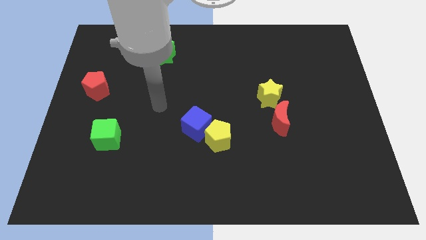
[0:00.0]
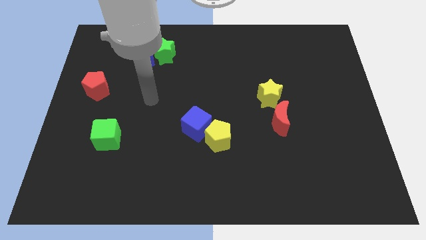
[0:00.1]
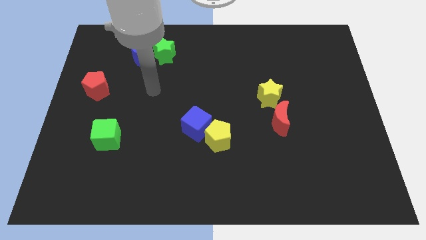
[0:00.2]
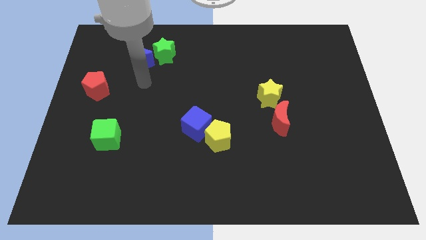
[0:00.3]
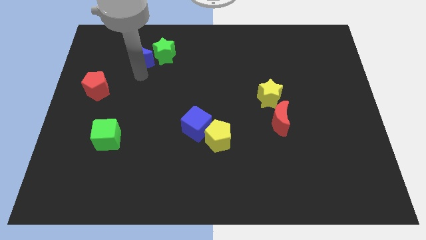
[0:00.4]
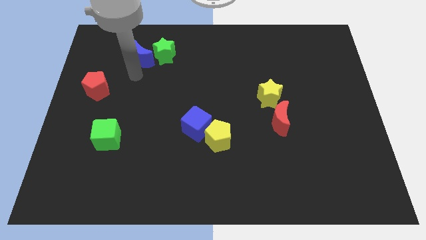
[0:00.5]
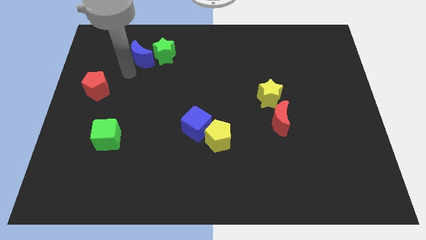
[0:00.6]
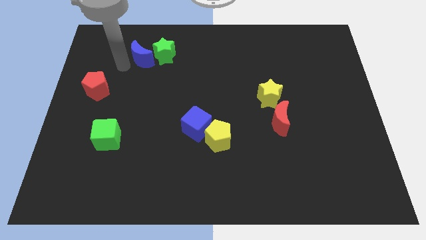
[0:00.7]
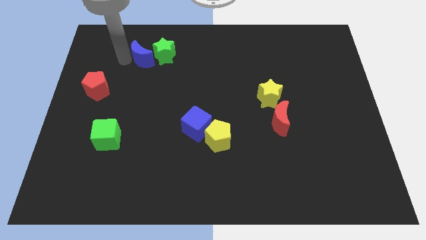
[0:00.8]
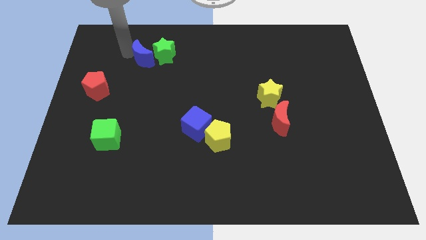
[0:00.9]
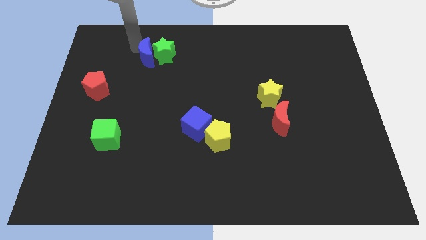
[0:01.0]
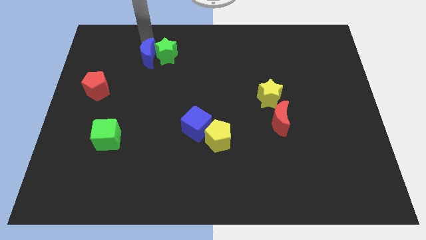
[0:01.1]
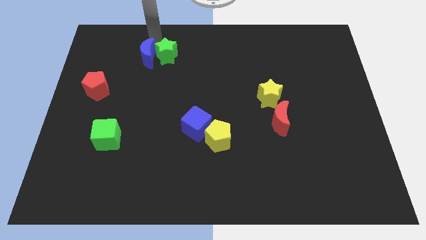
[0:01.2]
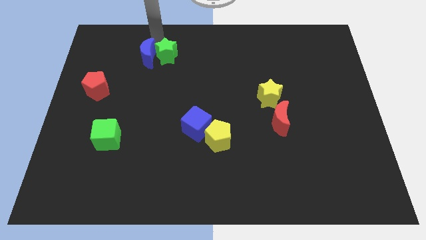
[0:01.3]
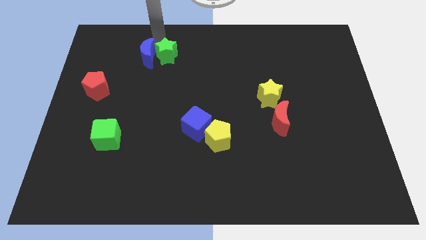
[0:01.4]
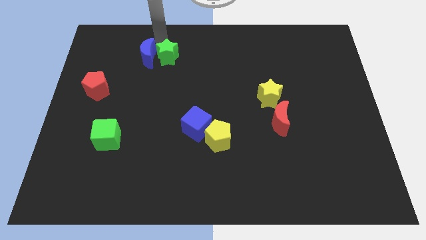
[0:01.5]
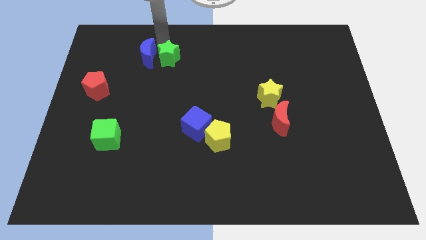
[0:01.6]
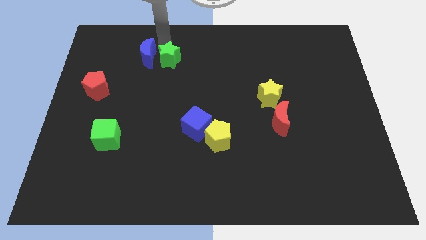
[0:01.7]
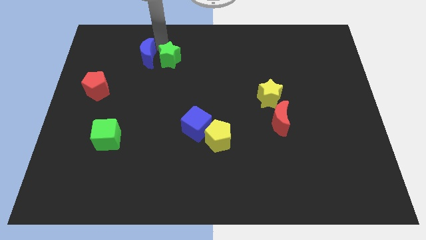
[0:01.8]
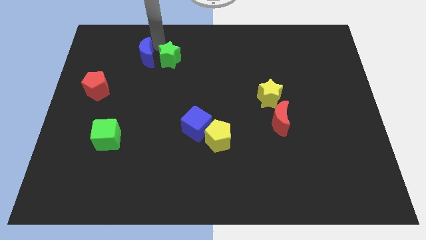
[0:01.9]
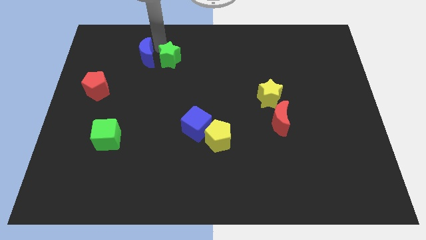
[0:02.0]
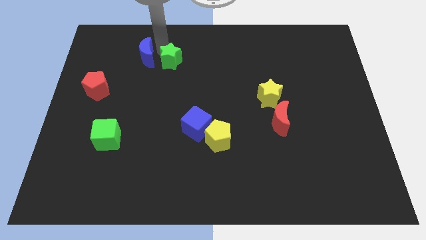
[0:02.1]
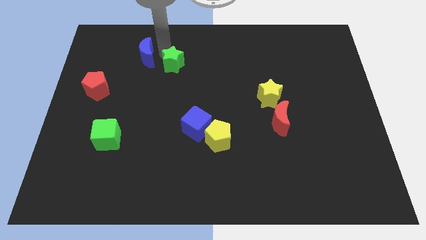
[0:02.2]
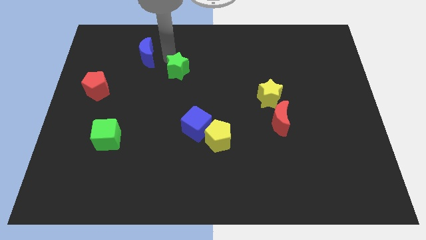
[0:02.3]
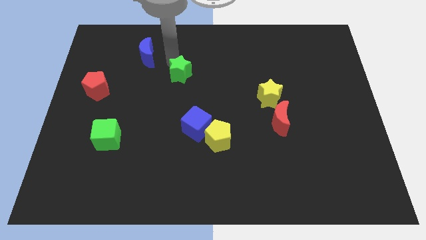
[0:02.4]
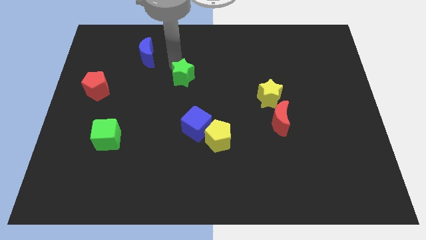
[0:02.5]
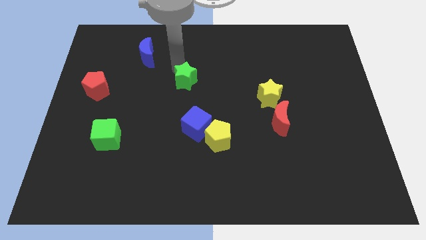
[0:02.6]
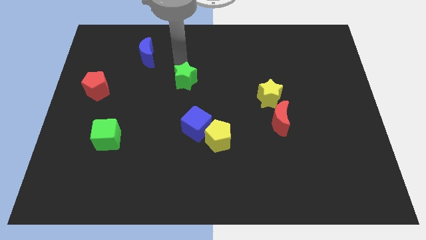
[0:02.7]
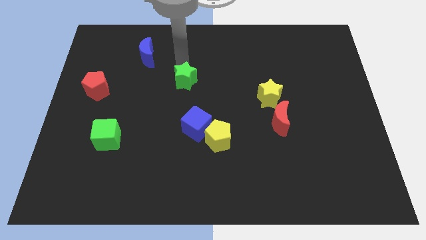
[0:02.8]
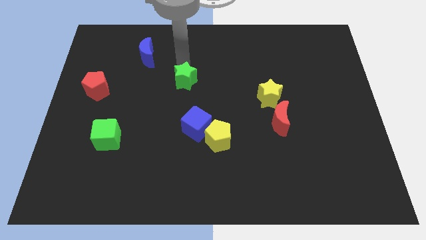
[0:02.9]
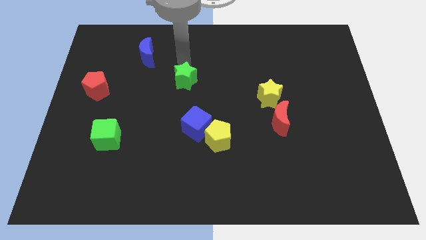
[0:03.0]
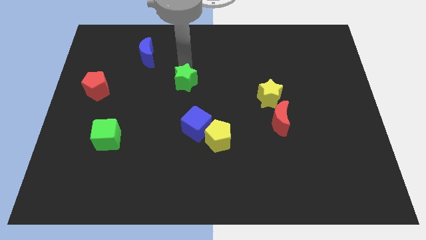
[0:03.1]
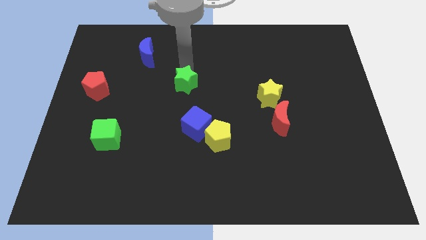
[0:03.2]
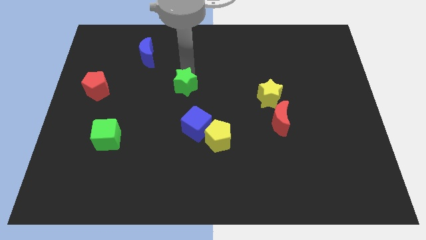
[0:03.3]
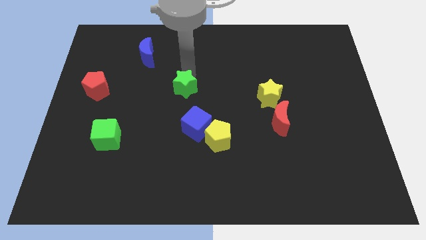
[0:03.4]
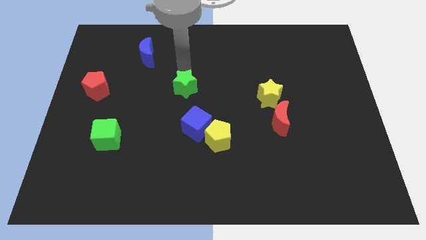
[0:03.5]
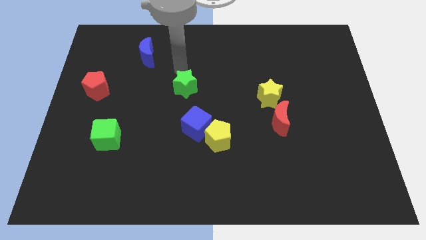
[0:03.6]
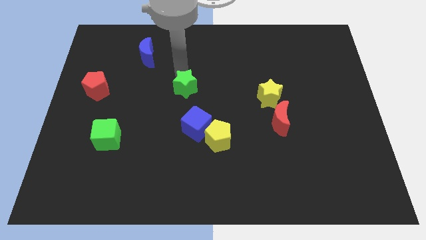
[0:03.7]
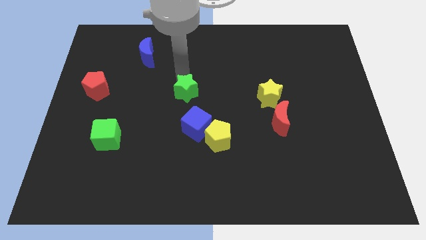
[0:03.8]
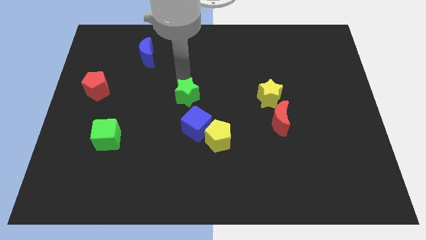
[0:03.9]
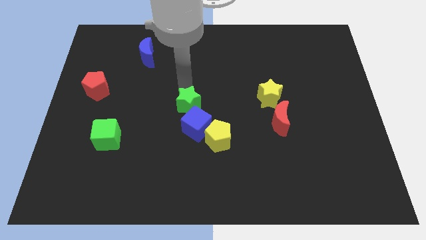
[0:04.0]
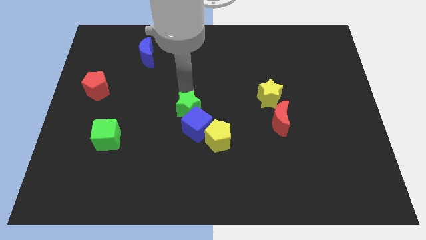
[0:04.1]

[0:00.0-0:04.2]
put the green star to the blue cube

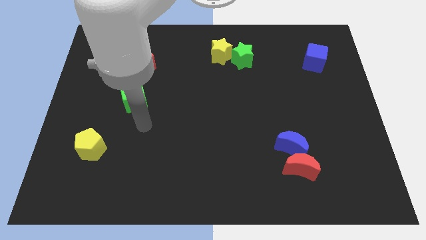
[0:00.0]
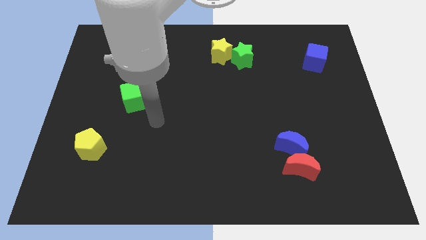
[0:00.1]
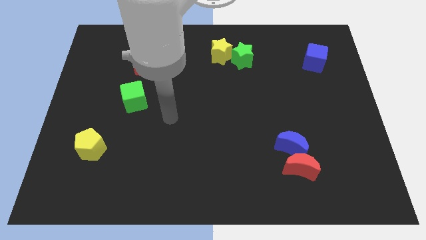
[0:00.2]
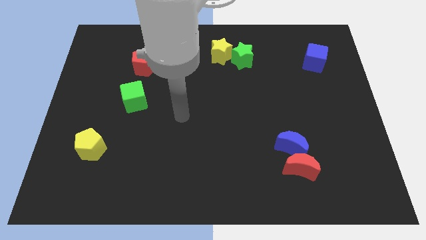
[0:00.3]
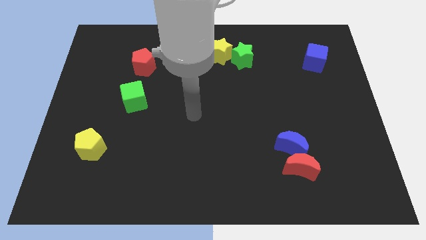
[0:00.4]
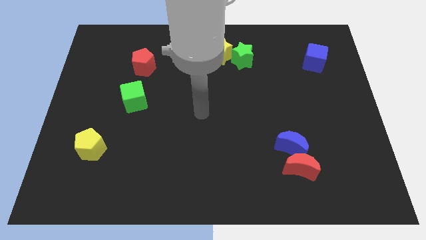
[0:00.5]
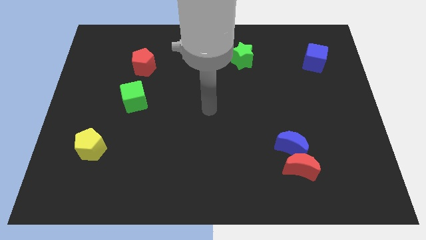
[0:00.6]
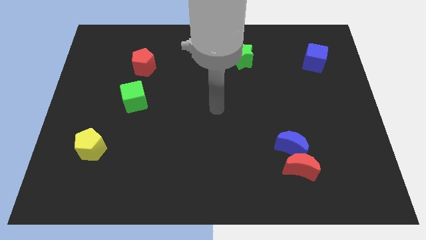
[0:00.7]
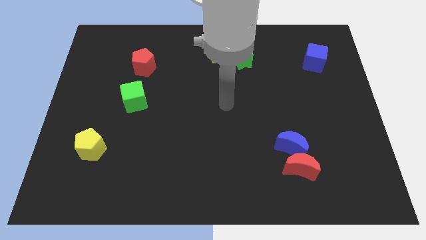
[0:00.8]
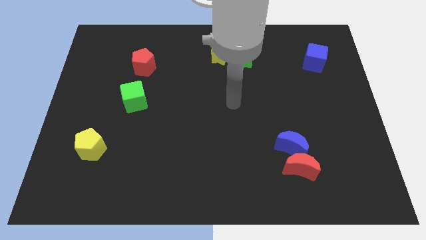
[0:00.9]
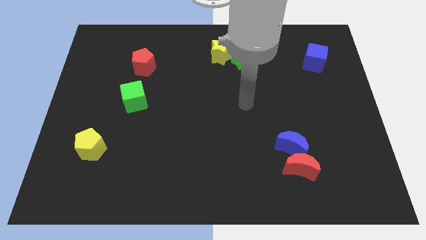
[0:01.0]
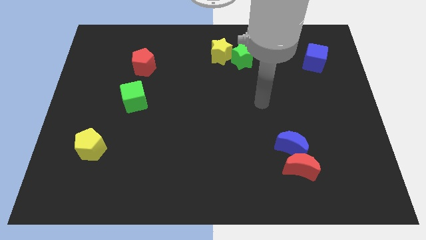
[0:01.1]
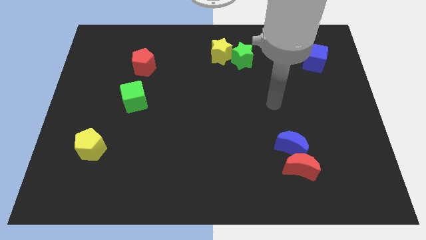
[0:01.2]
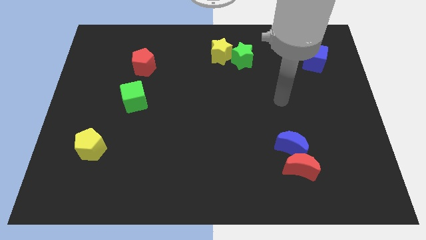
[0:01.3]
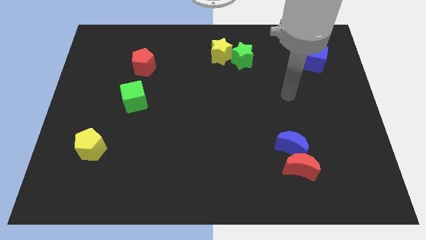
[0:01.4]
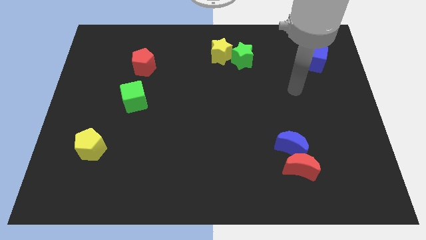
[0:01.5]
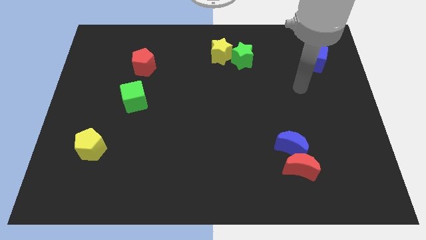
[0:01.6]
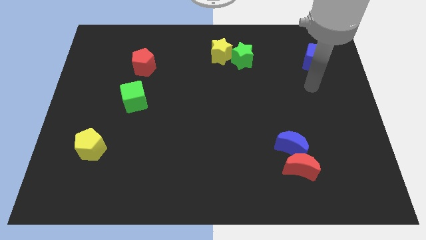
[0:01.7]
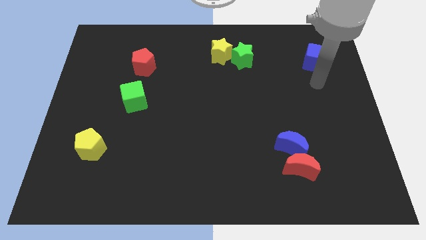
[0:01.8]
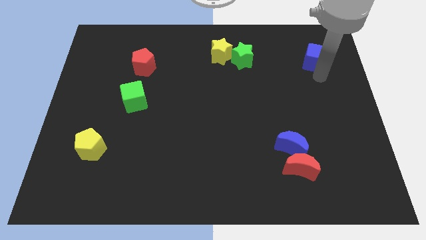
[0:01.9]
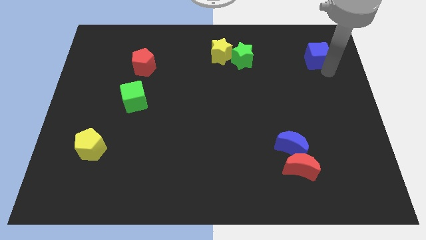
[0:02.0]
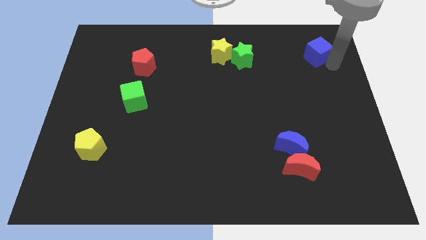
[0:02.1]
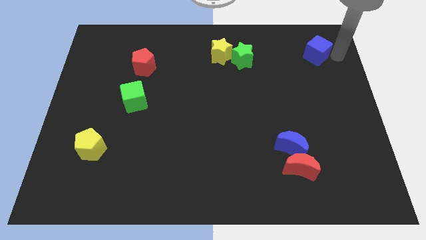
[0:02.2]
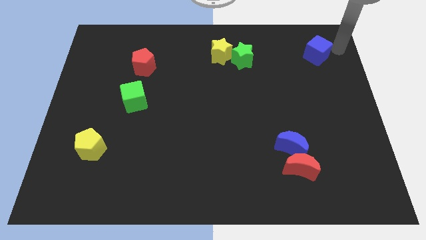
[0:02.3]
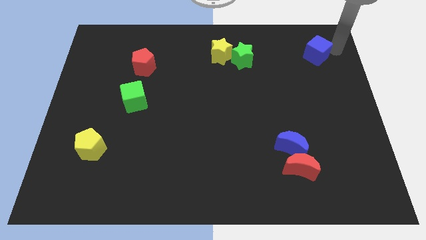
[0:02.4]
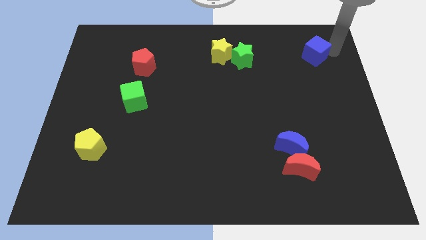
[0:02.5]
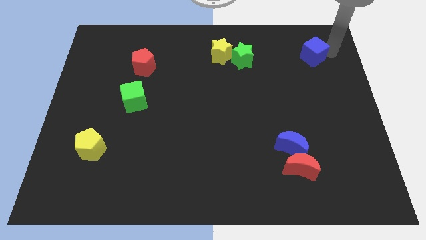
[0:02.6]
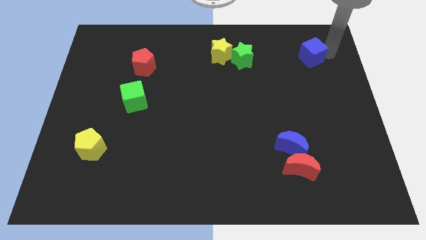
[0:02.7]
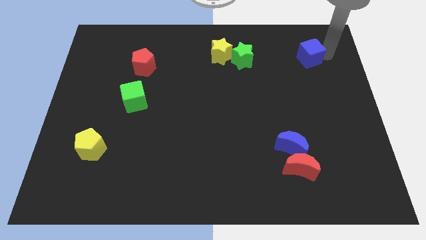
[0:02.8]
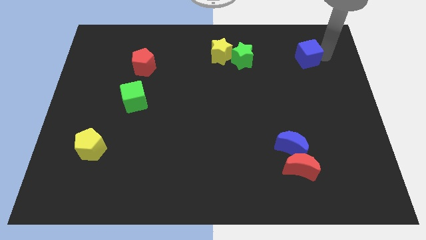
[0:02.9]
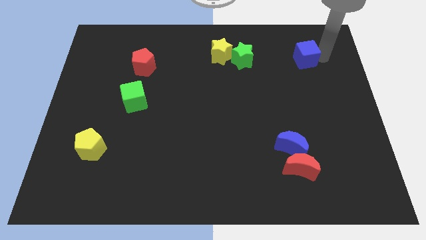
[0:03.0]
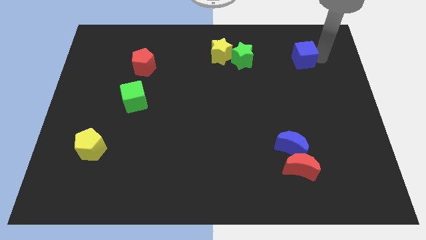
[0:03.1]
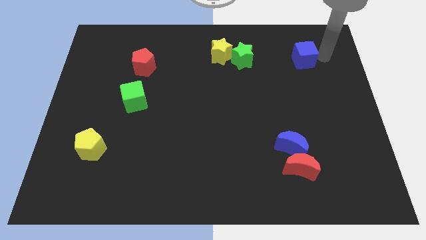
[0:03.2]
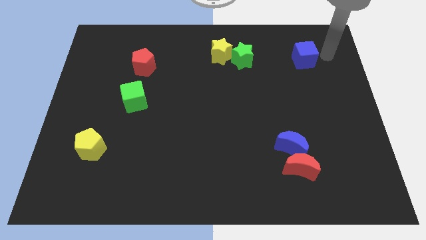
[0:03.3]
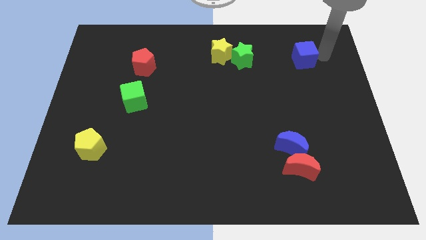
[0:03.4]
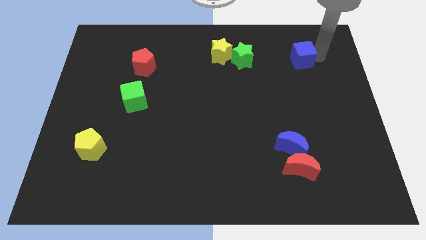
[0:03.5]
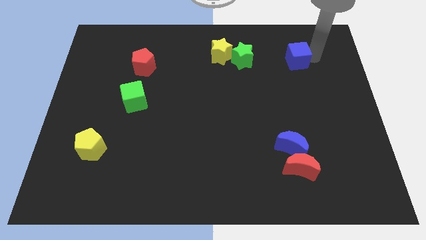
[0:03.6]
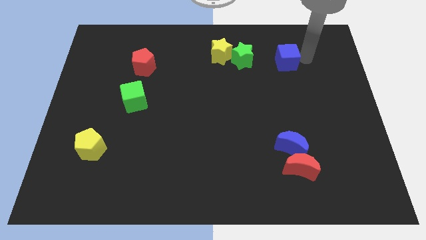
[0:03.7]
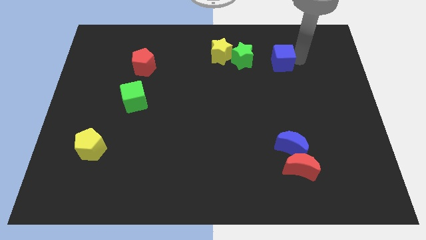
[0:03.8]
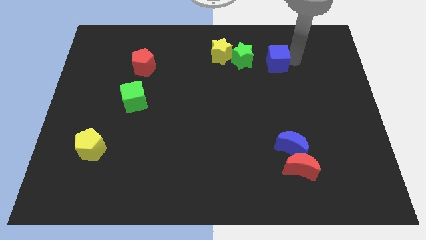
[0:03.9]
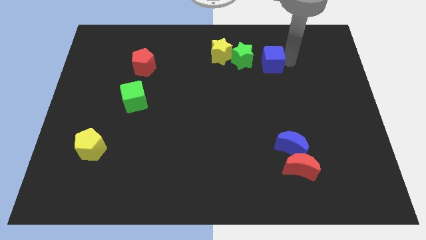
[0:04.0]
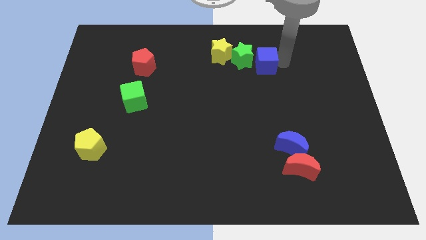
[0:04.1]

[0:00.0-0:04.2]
put the blue cube to the green star
